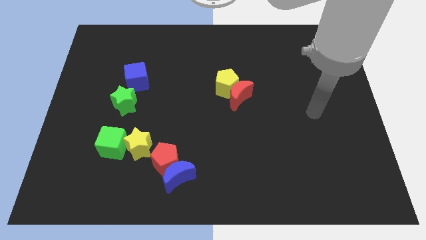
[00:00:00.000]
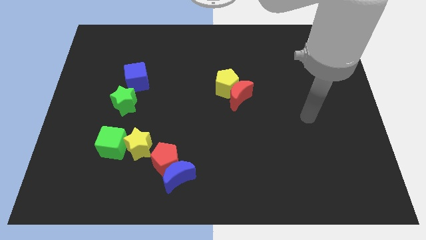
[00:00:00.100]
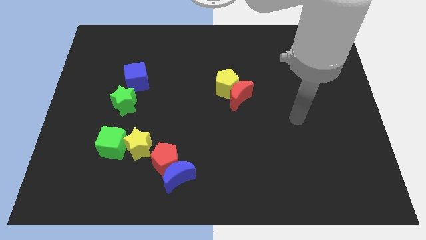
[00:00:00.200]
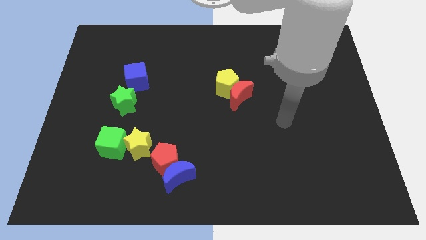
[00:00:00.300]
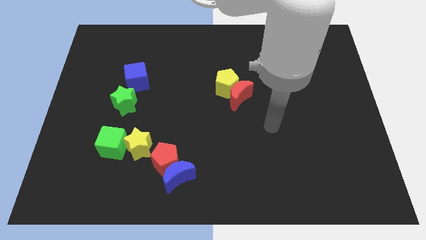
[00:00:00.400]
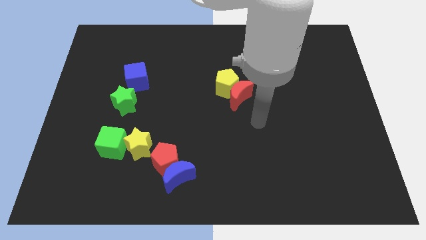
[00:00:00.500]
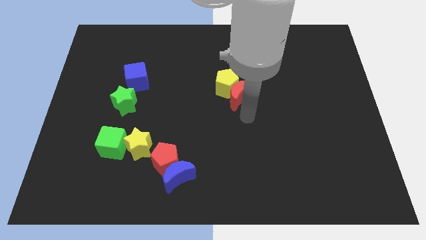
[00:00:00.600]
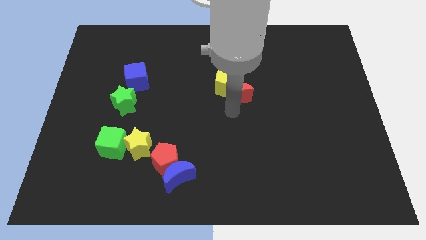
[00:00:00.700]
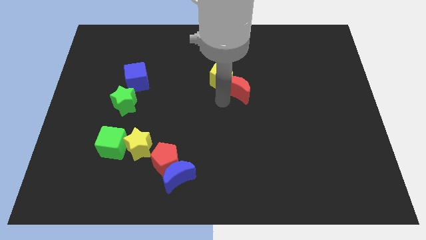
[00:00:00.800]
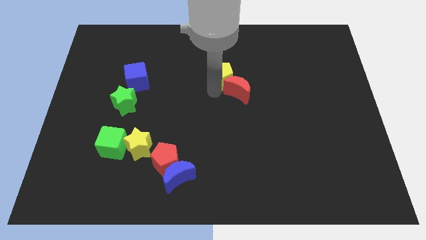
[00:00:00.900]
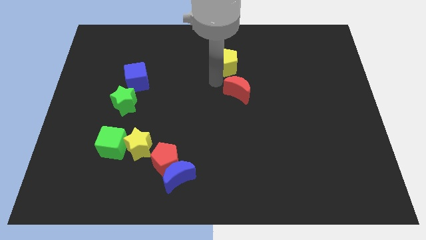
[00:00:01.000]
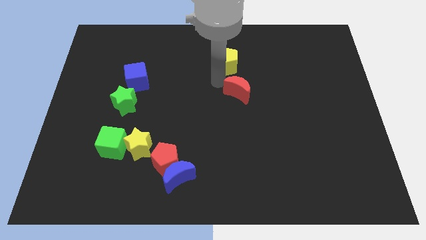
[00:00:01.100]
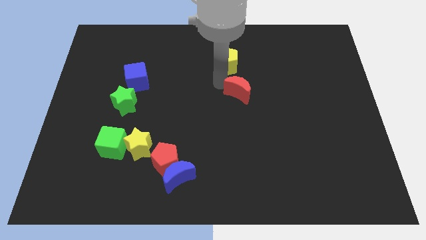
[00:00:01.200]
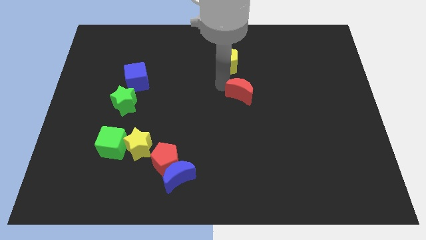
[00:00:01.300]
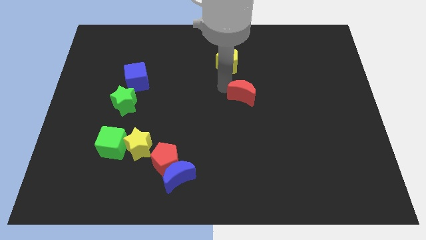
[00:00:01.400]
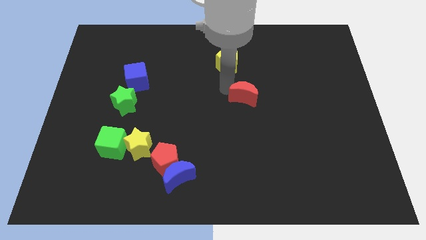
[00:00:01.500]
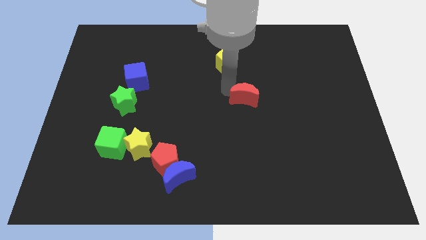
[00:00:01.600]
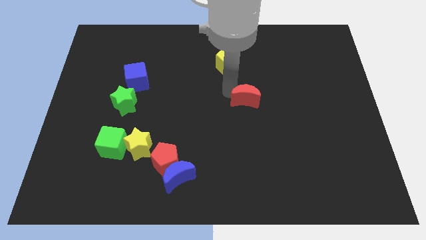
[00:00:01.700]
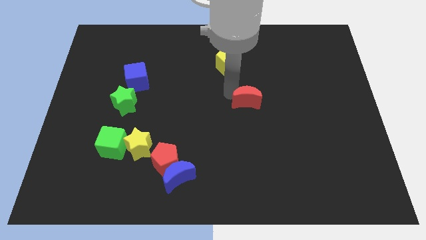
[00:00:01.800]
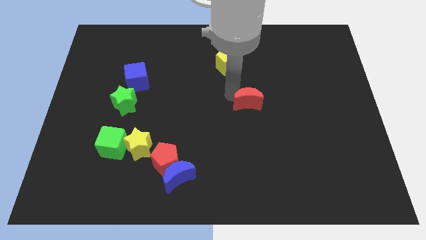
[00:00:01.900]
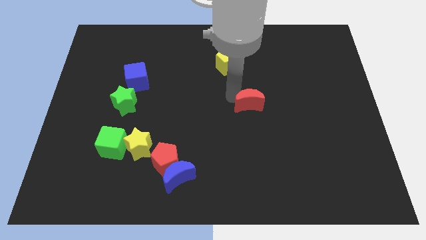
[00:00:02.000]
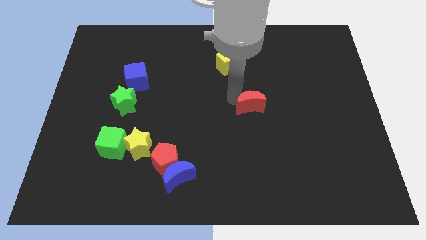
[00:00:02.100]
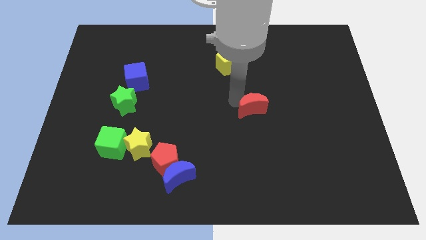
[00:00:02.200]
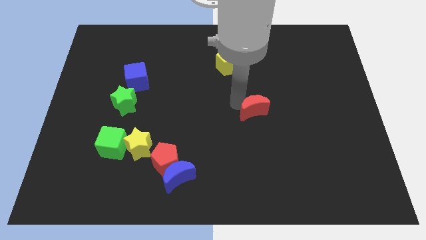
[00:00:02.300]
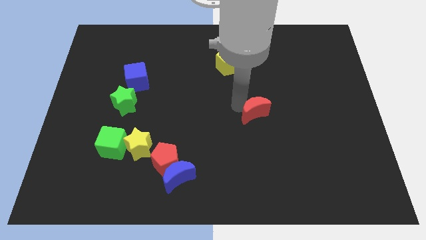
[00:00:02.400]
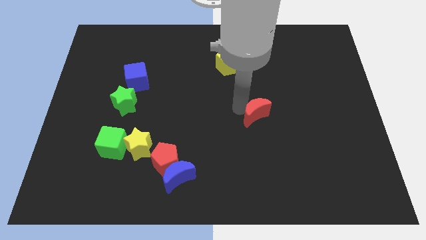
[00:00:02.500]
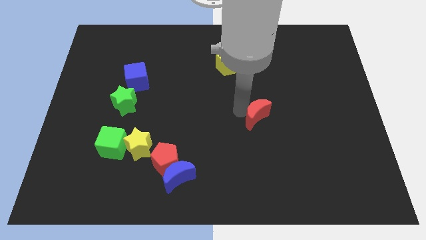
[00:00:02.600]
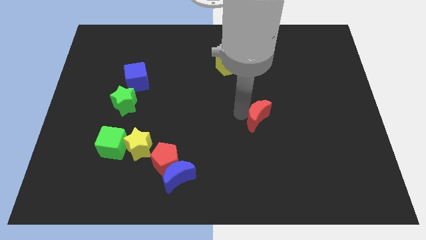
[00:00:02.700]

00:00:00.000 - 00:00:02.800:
slide the red moon down and right a little bit

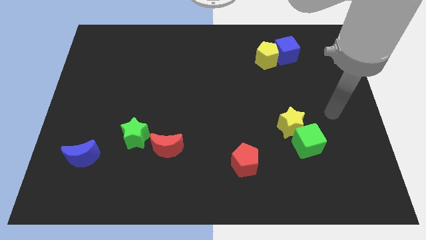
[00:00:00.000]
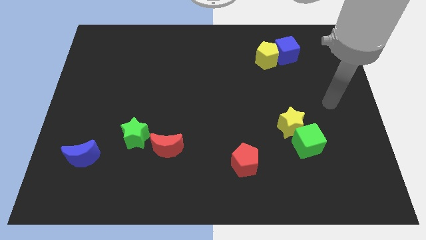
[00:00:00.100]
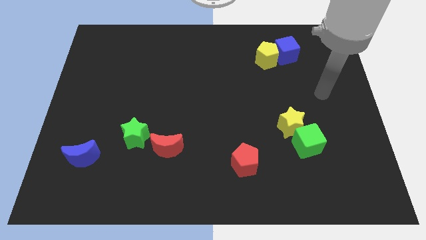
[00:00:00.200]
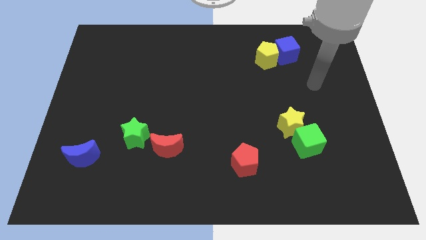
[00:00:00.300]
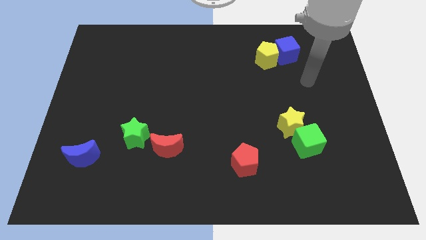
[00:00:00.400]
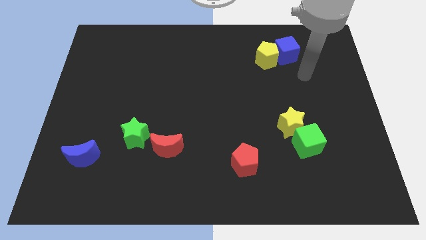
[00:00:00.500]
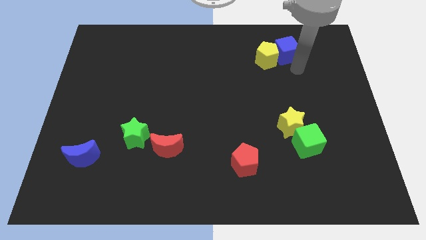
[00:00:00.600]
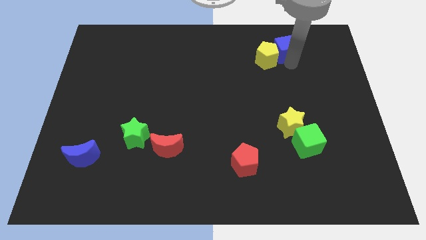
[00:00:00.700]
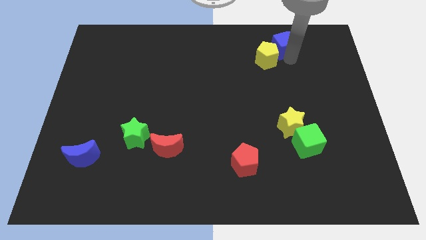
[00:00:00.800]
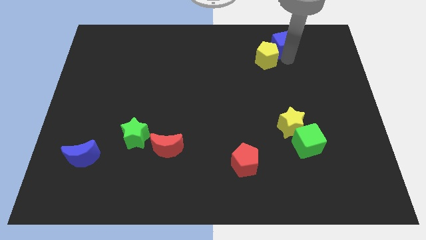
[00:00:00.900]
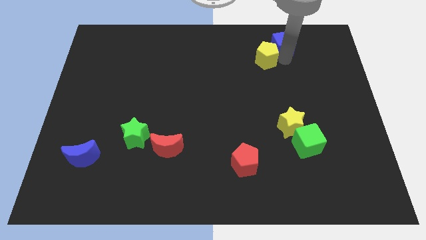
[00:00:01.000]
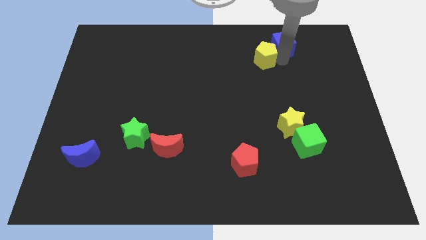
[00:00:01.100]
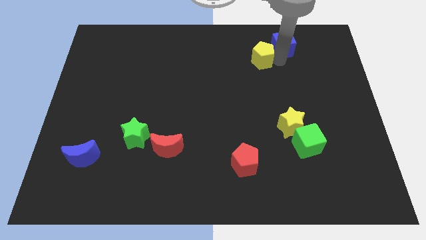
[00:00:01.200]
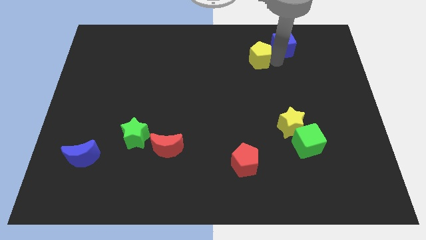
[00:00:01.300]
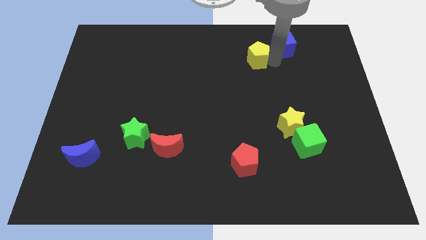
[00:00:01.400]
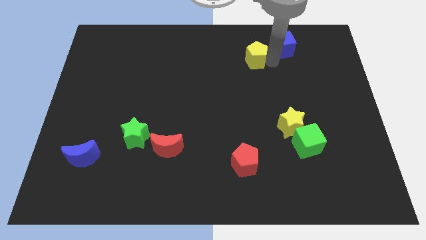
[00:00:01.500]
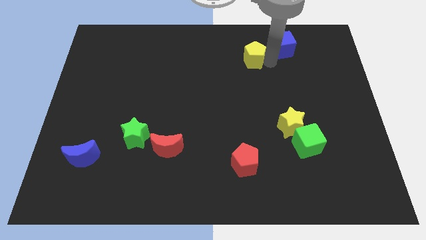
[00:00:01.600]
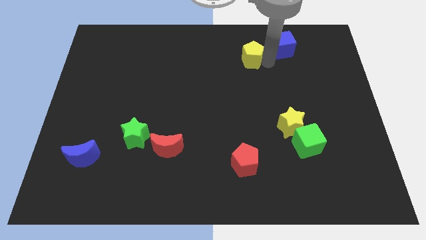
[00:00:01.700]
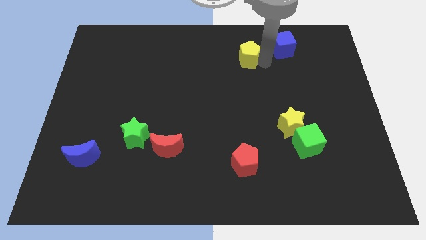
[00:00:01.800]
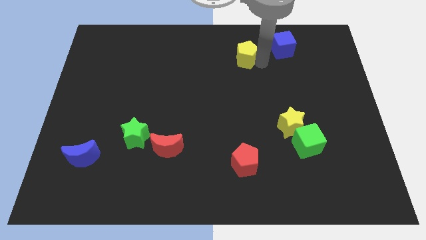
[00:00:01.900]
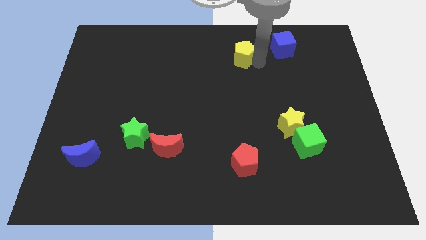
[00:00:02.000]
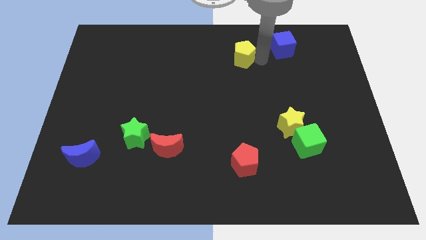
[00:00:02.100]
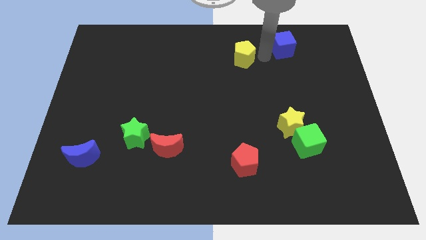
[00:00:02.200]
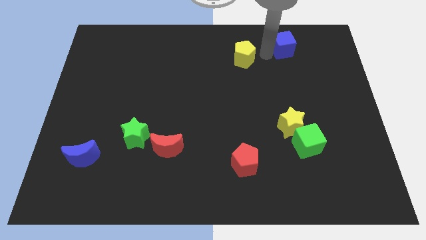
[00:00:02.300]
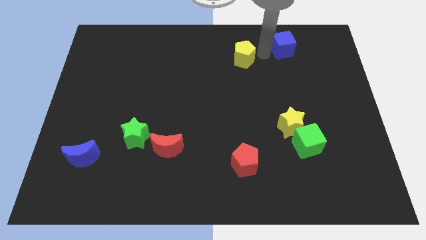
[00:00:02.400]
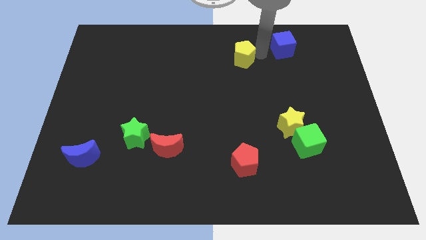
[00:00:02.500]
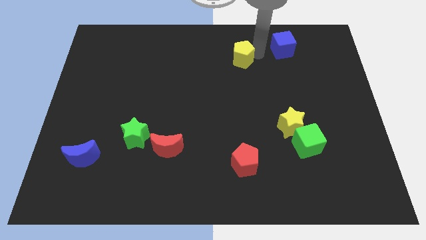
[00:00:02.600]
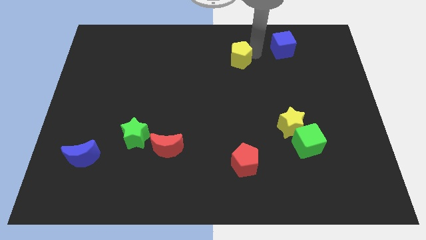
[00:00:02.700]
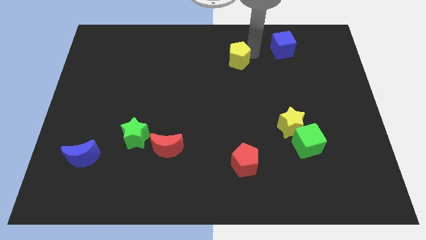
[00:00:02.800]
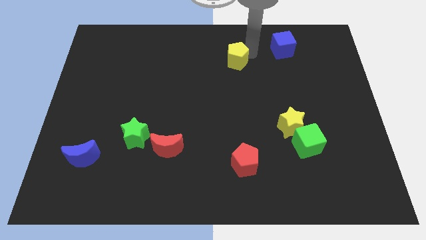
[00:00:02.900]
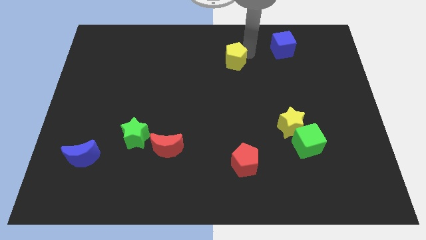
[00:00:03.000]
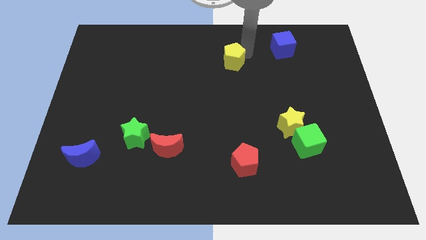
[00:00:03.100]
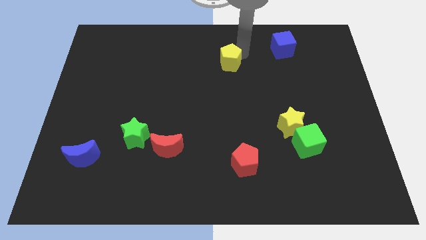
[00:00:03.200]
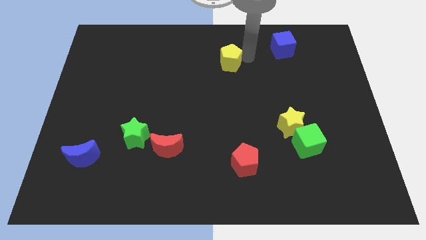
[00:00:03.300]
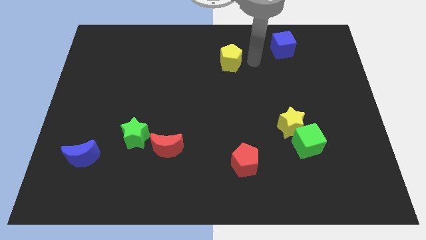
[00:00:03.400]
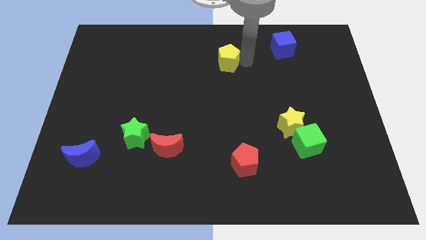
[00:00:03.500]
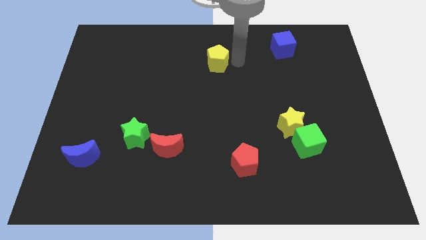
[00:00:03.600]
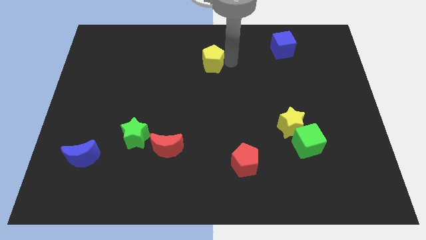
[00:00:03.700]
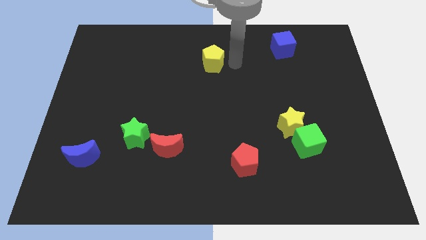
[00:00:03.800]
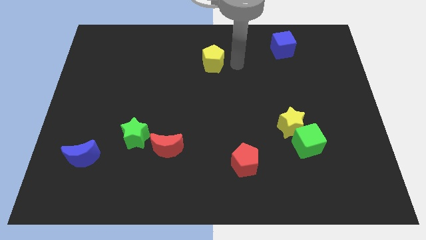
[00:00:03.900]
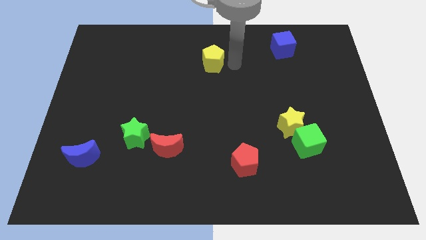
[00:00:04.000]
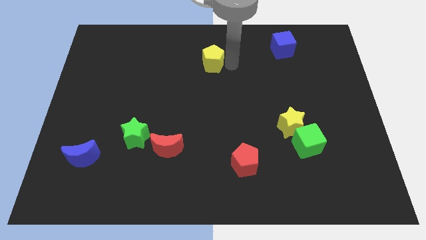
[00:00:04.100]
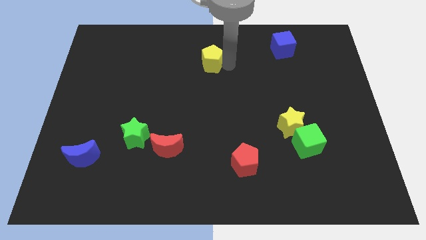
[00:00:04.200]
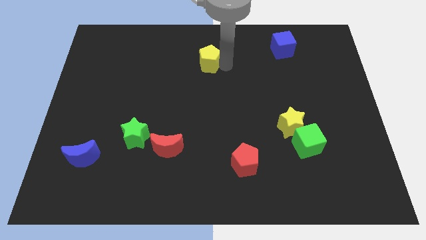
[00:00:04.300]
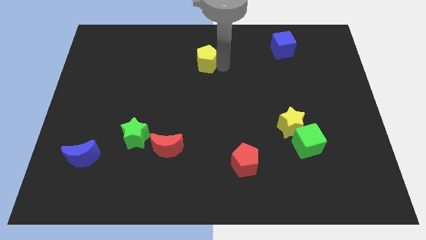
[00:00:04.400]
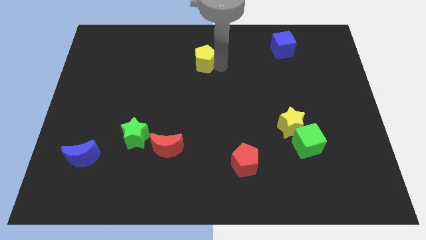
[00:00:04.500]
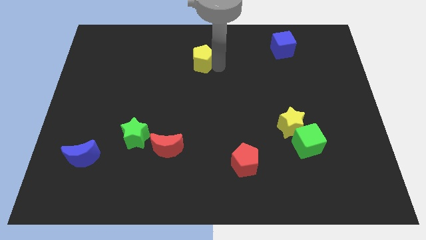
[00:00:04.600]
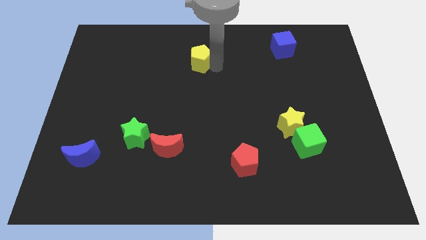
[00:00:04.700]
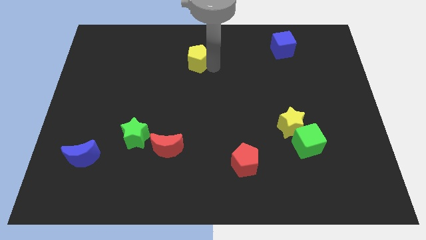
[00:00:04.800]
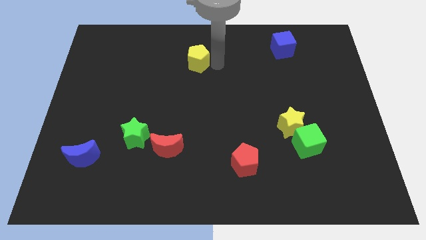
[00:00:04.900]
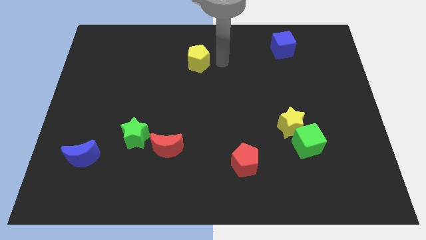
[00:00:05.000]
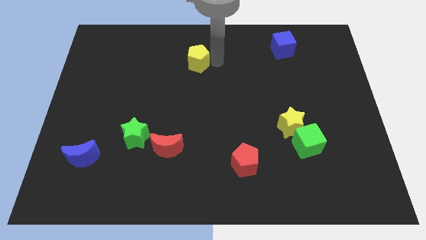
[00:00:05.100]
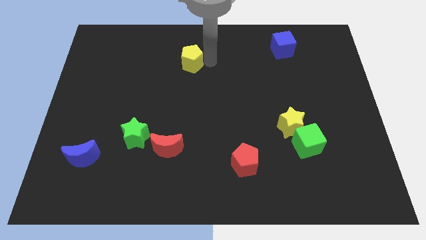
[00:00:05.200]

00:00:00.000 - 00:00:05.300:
push the yellow pentagon to the left
